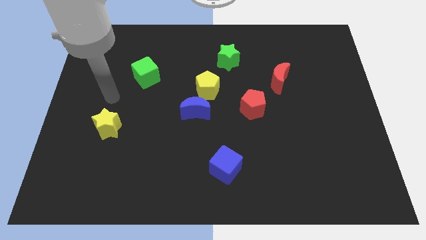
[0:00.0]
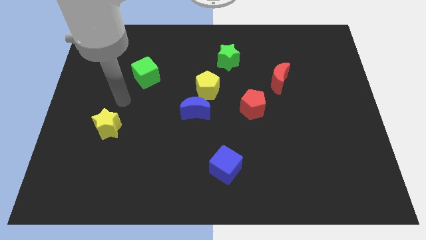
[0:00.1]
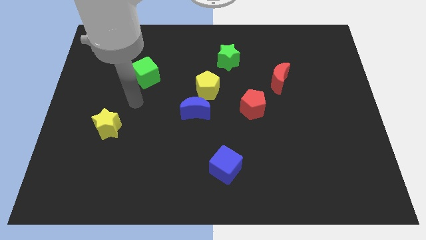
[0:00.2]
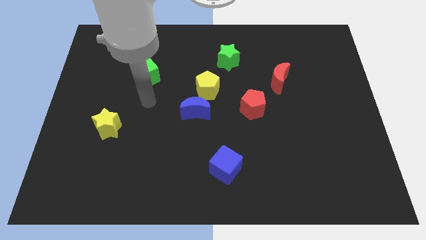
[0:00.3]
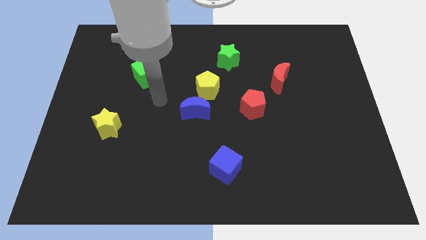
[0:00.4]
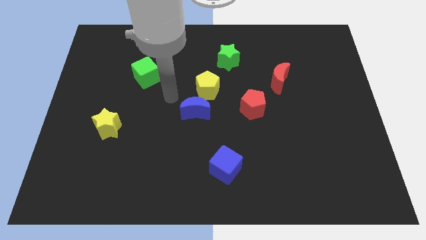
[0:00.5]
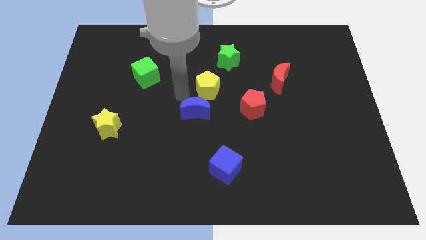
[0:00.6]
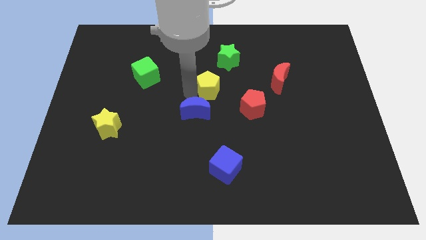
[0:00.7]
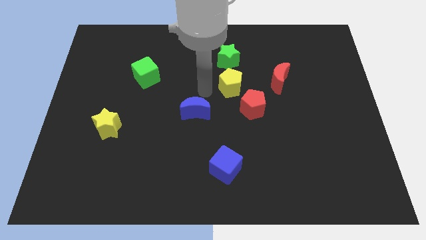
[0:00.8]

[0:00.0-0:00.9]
move the blue moon away from the yellow pentagon

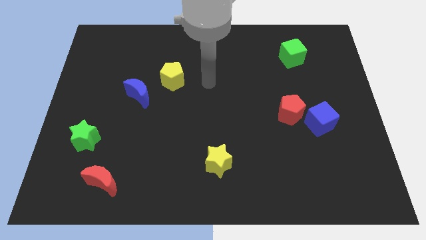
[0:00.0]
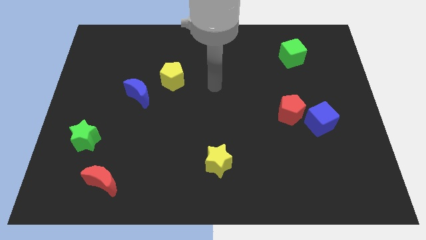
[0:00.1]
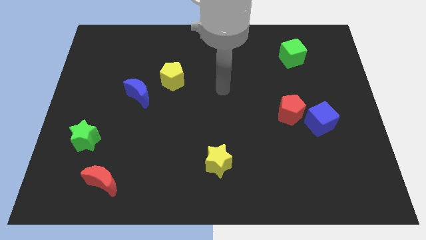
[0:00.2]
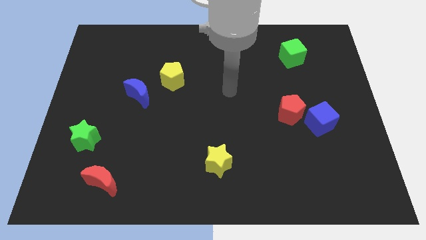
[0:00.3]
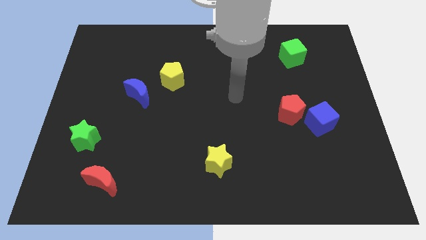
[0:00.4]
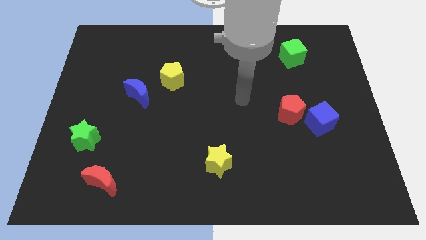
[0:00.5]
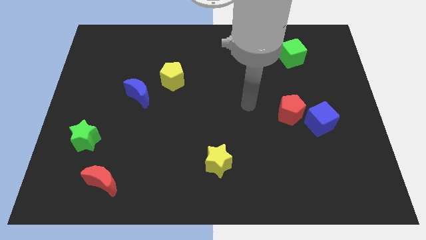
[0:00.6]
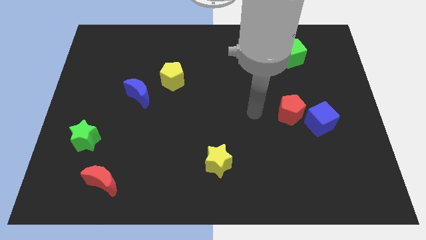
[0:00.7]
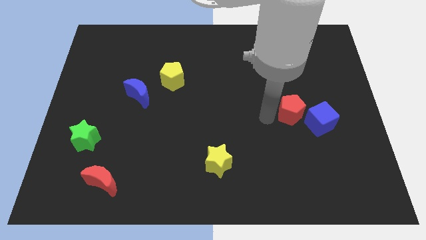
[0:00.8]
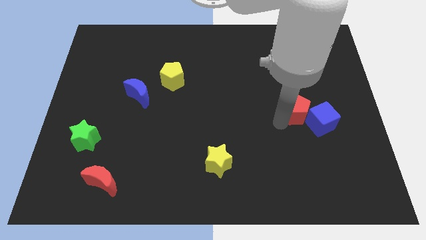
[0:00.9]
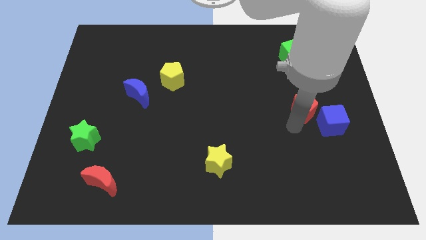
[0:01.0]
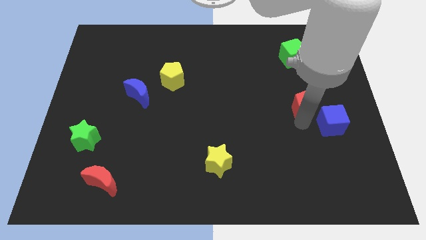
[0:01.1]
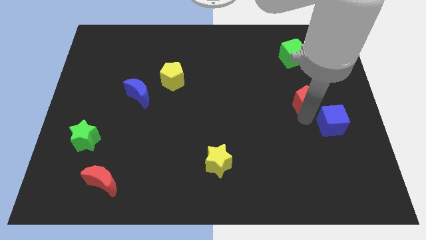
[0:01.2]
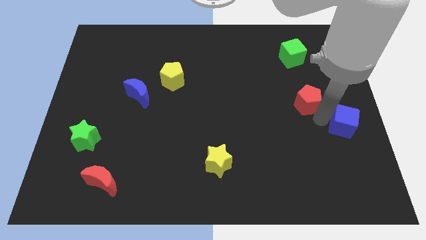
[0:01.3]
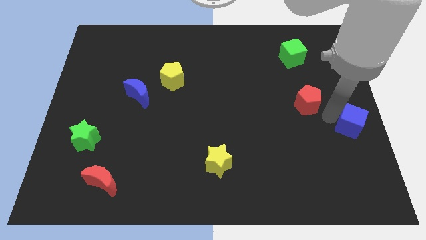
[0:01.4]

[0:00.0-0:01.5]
move the red pentagon away from the blue cube

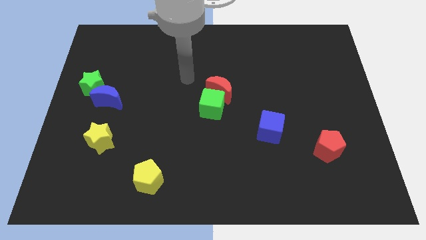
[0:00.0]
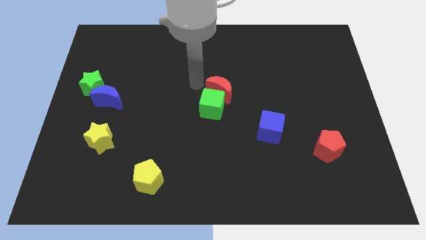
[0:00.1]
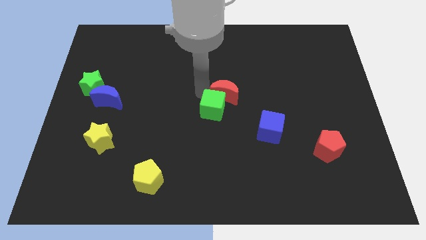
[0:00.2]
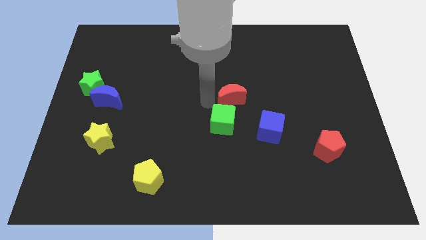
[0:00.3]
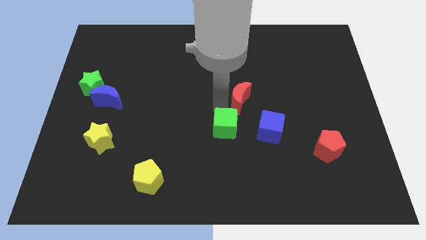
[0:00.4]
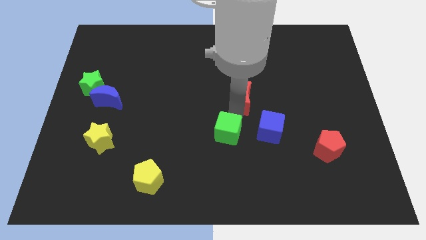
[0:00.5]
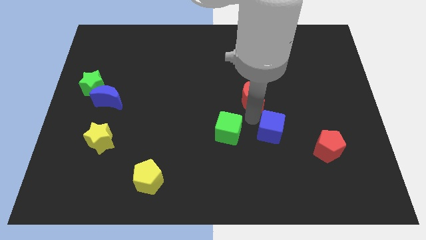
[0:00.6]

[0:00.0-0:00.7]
move the red moon away from the green cube

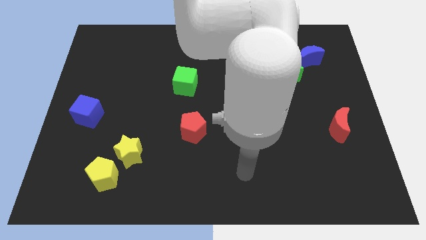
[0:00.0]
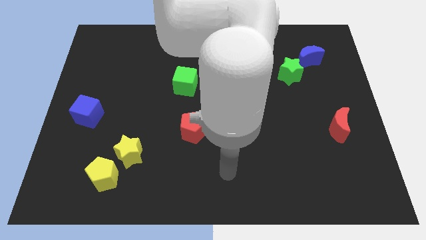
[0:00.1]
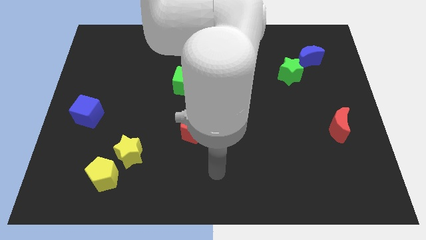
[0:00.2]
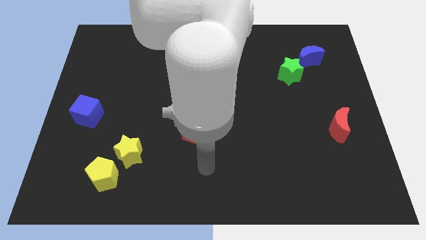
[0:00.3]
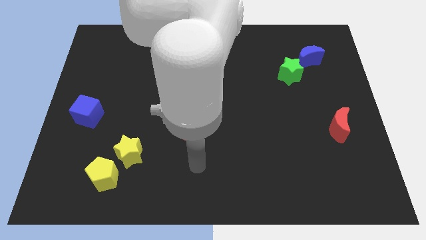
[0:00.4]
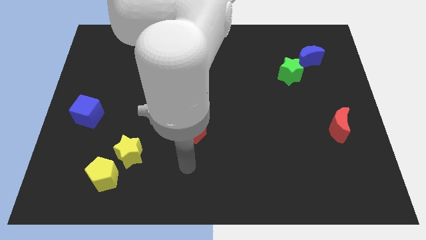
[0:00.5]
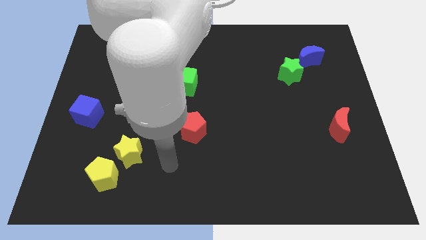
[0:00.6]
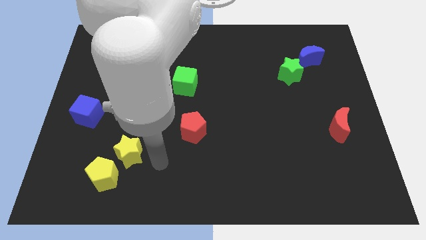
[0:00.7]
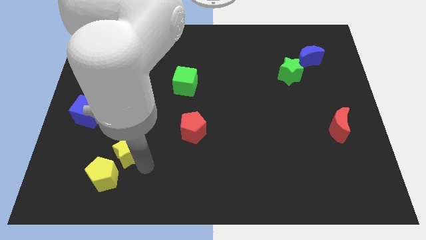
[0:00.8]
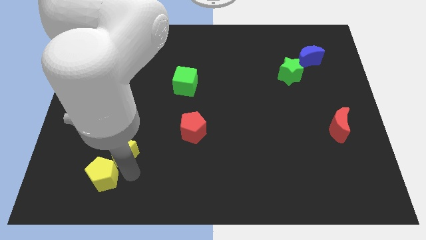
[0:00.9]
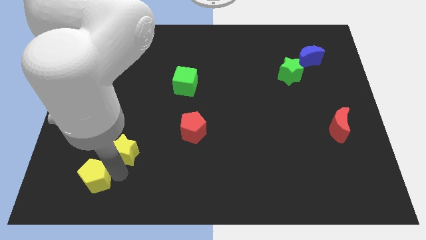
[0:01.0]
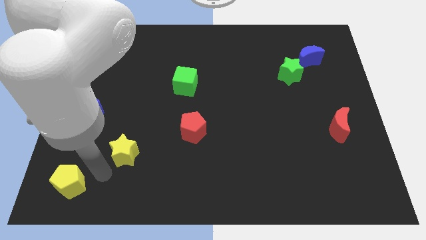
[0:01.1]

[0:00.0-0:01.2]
separate the yellow star from the yellow pentagon

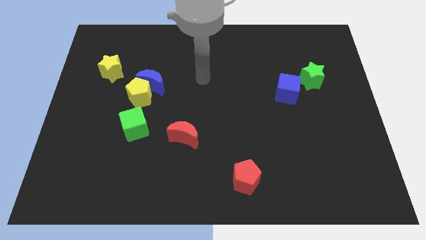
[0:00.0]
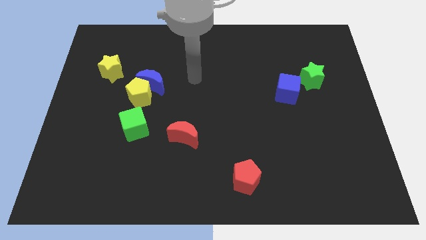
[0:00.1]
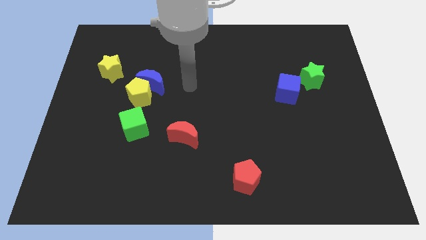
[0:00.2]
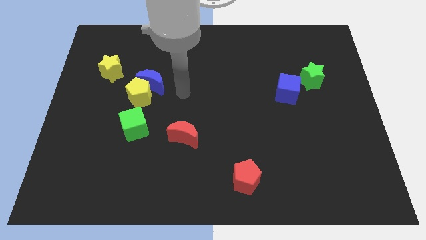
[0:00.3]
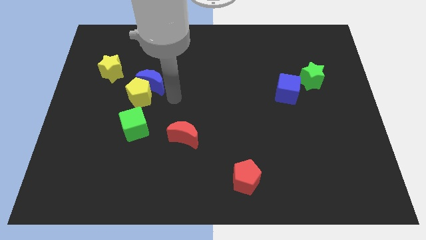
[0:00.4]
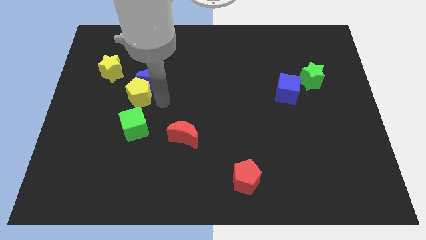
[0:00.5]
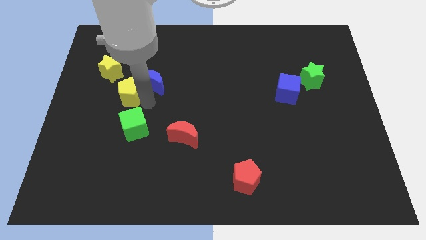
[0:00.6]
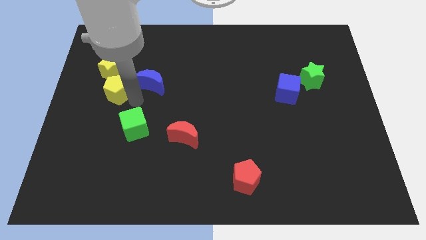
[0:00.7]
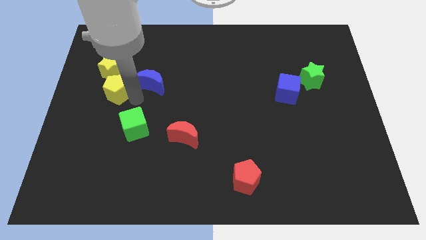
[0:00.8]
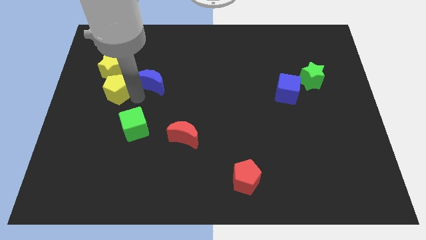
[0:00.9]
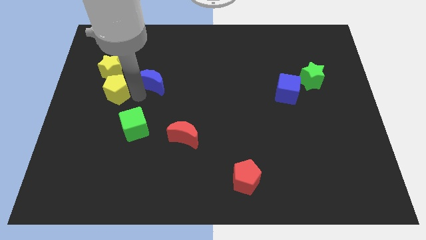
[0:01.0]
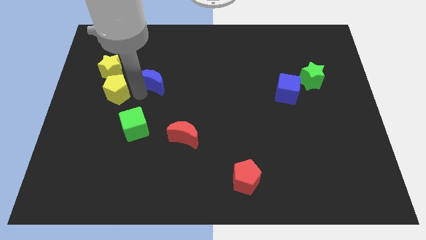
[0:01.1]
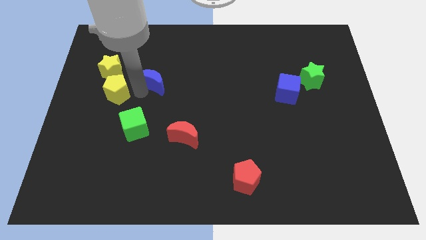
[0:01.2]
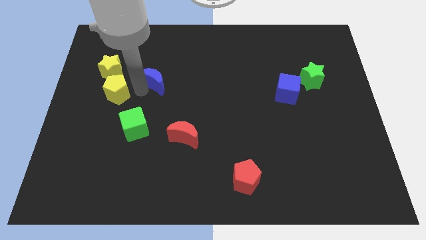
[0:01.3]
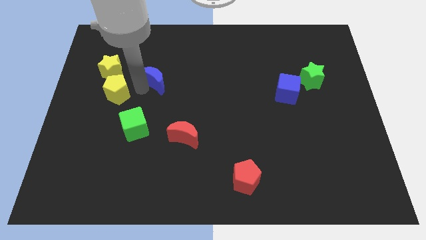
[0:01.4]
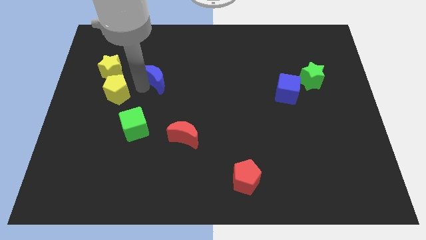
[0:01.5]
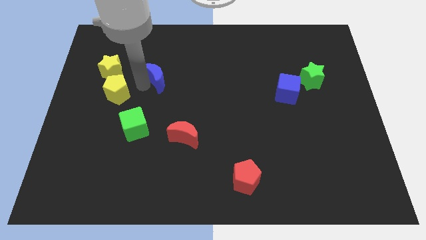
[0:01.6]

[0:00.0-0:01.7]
separate the blue moon from the yellow pentagon

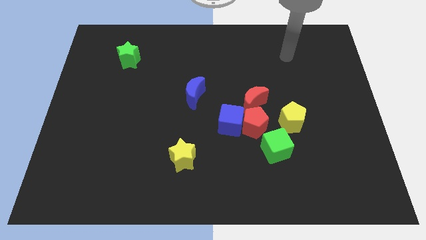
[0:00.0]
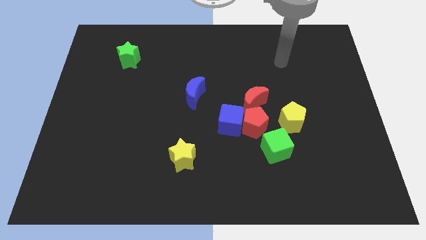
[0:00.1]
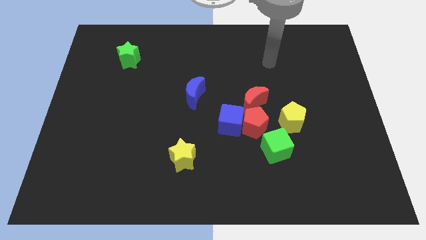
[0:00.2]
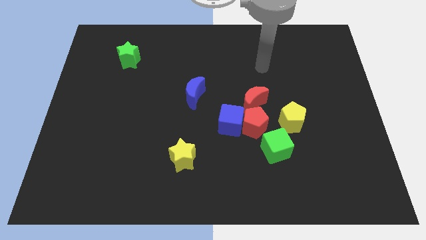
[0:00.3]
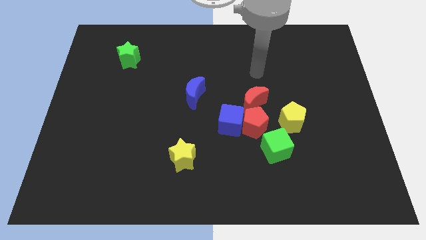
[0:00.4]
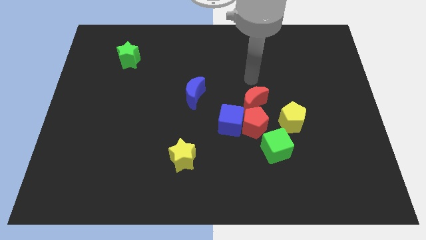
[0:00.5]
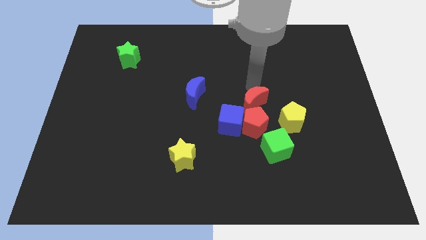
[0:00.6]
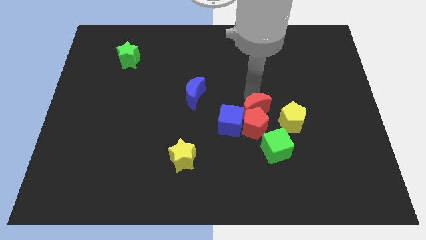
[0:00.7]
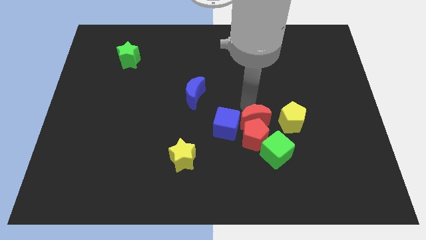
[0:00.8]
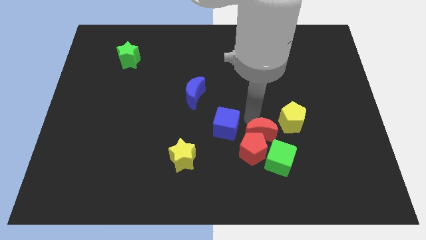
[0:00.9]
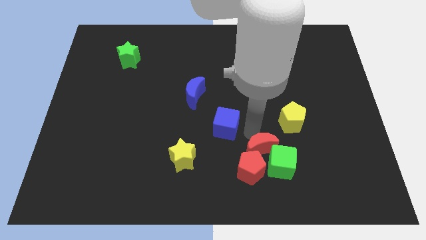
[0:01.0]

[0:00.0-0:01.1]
move the blue cube away from the red pentagon and red moon

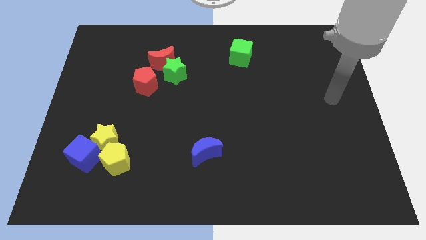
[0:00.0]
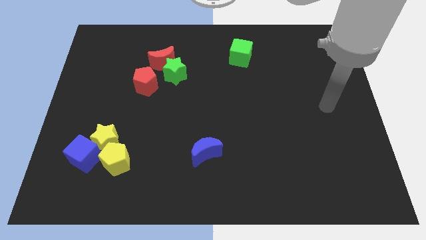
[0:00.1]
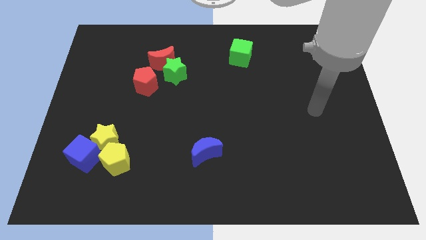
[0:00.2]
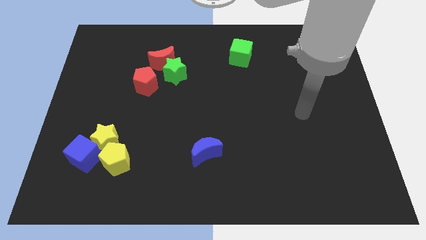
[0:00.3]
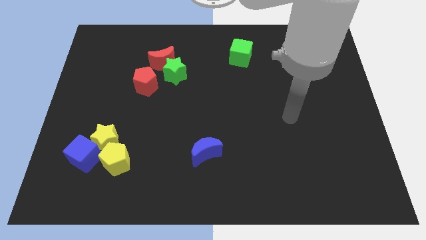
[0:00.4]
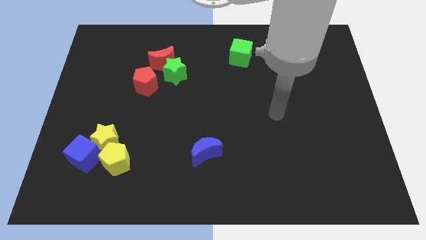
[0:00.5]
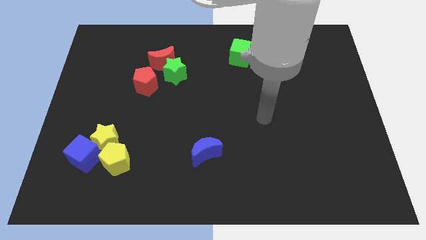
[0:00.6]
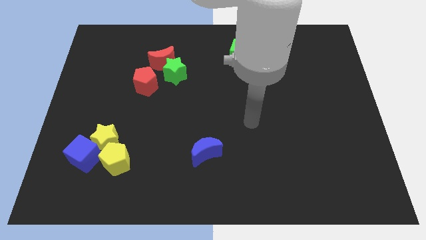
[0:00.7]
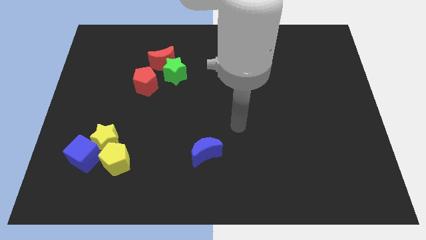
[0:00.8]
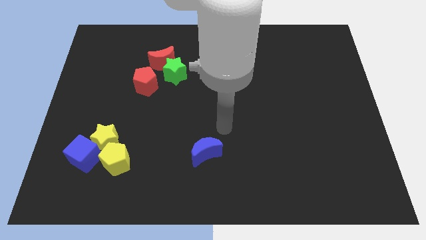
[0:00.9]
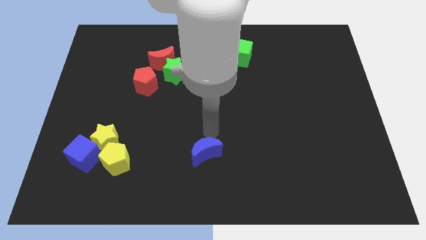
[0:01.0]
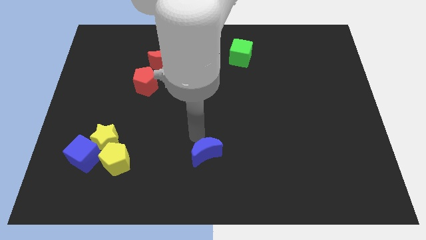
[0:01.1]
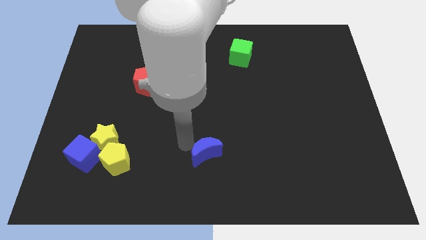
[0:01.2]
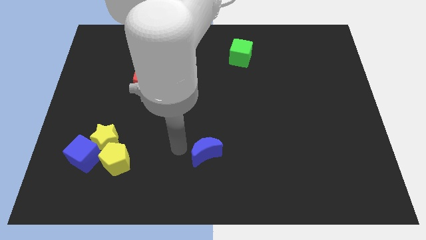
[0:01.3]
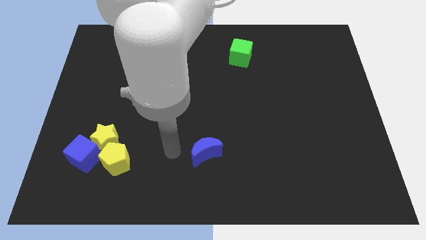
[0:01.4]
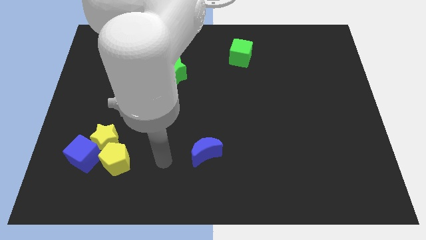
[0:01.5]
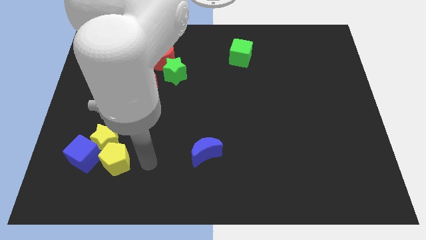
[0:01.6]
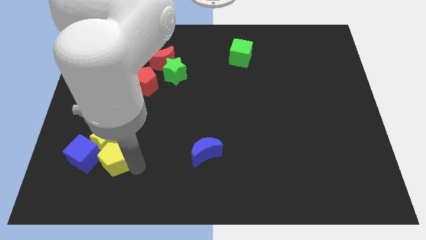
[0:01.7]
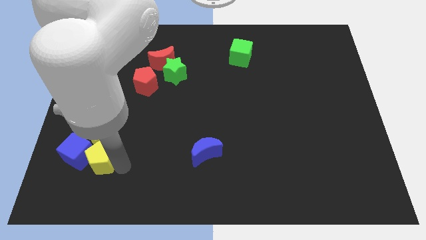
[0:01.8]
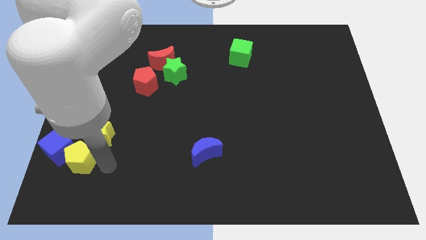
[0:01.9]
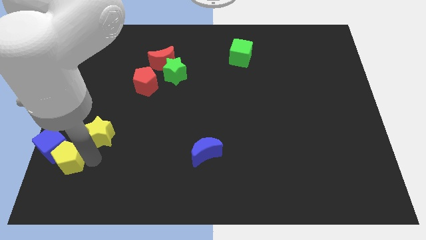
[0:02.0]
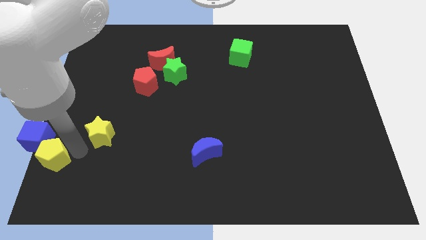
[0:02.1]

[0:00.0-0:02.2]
pull the yellow star apart from the yellow pentagon and blue cube
